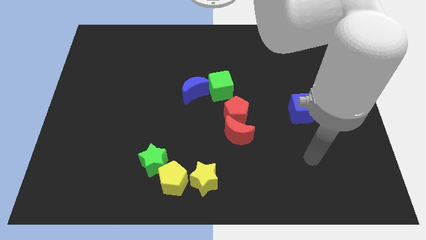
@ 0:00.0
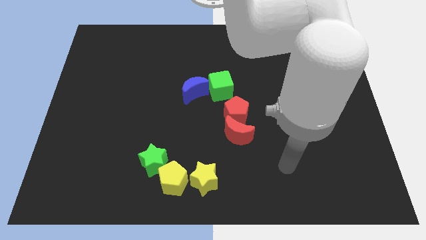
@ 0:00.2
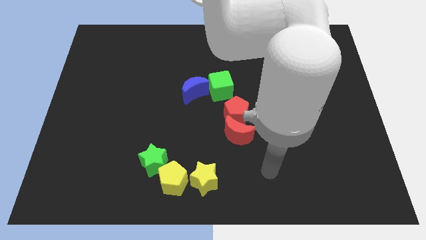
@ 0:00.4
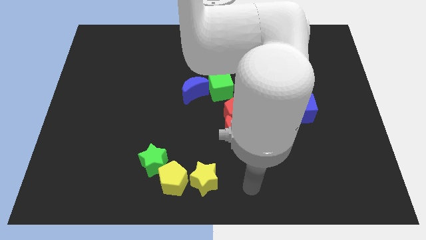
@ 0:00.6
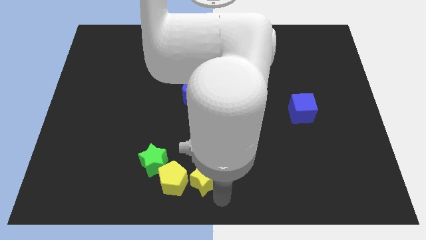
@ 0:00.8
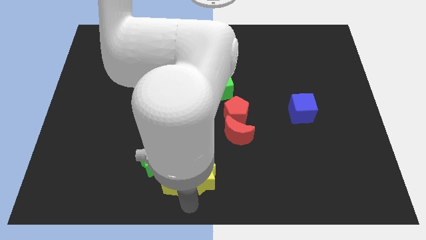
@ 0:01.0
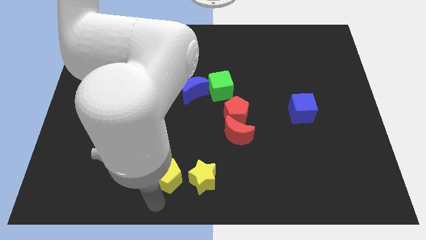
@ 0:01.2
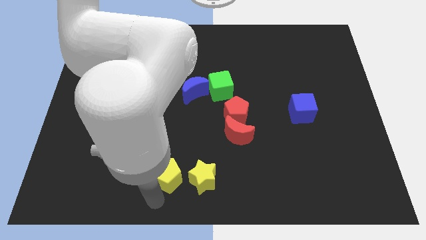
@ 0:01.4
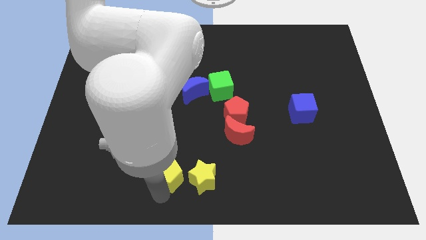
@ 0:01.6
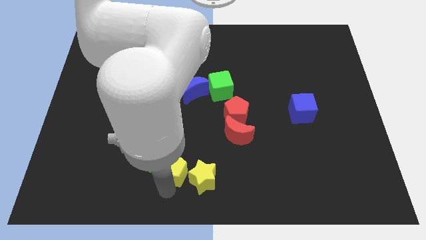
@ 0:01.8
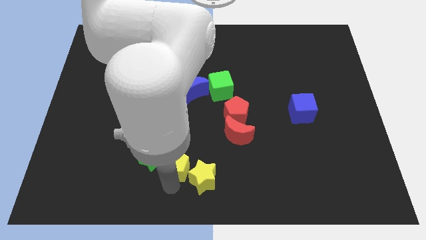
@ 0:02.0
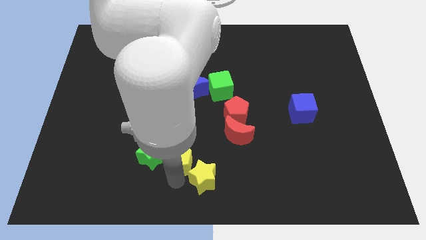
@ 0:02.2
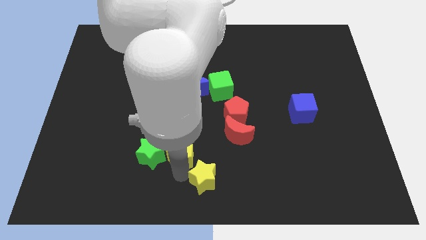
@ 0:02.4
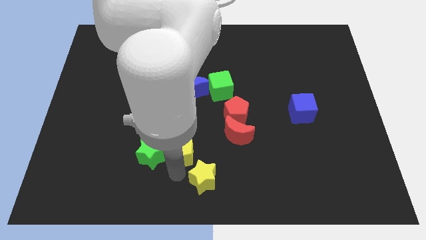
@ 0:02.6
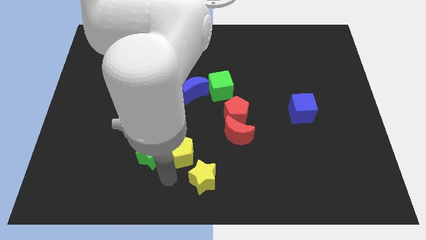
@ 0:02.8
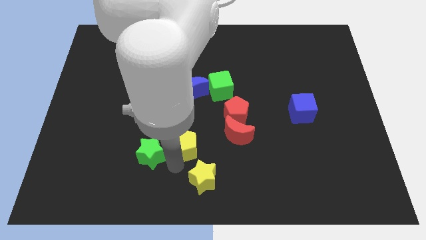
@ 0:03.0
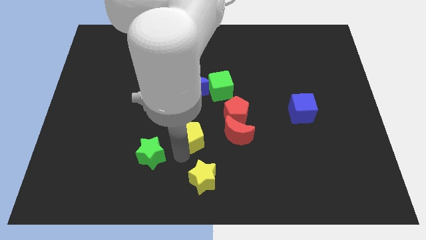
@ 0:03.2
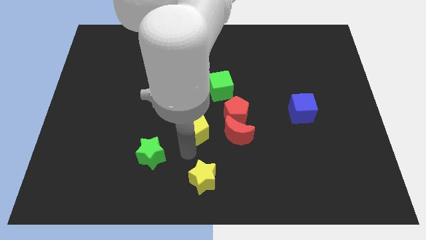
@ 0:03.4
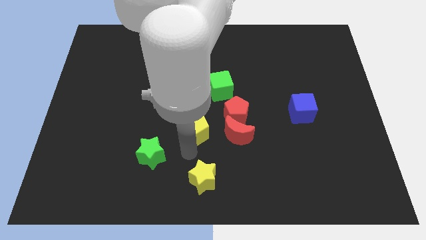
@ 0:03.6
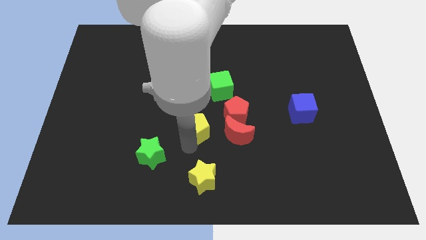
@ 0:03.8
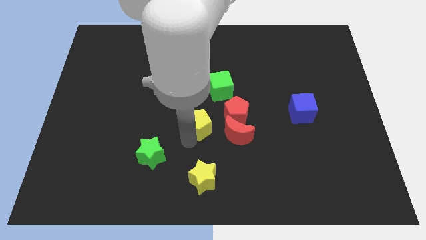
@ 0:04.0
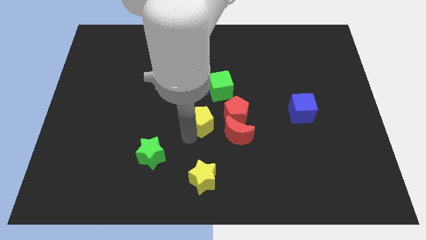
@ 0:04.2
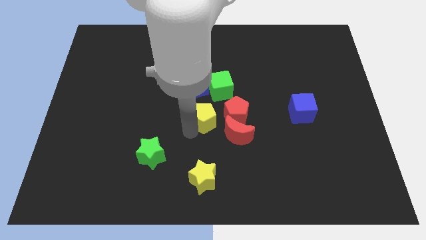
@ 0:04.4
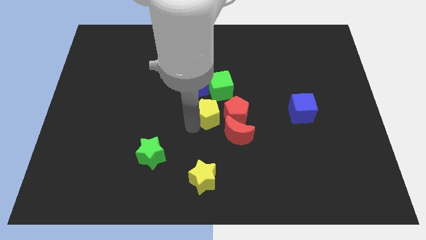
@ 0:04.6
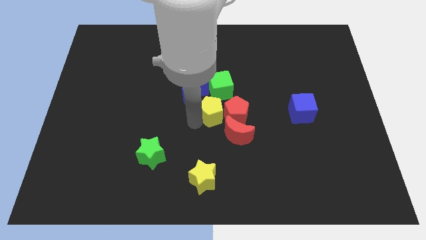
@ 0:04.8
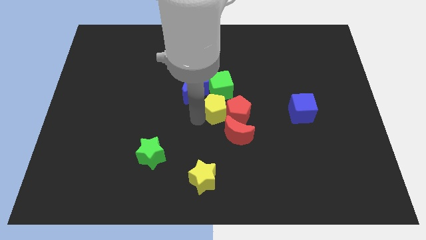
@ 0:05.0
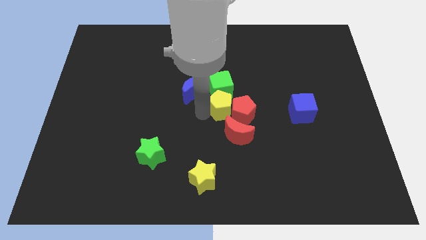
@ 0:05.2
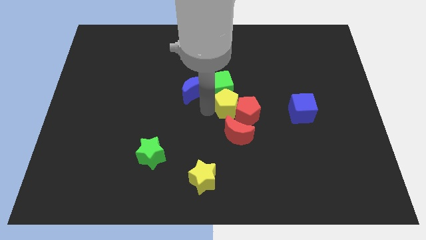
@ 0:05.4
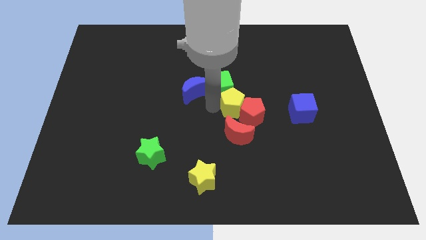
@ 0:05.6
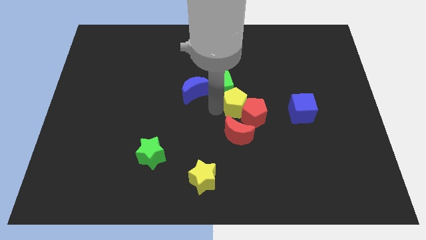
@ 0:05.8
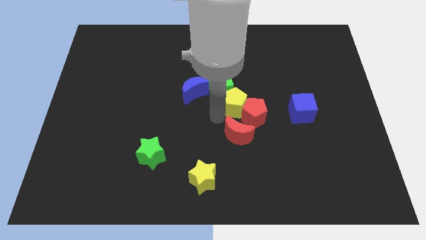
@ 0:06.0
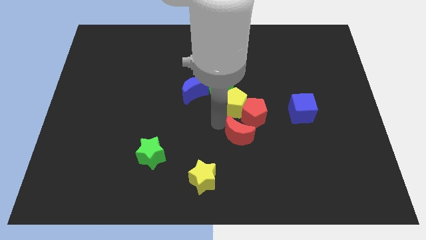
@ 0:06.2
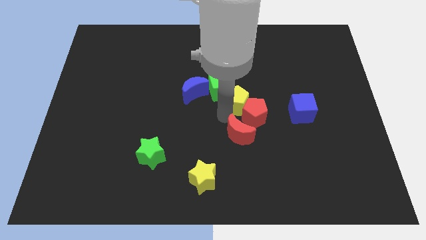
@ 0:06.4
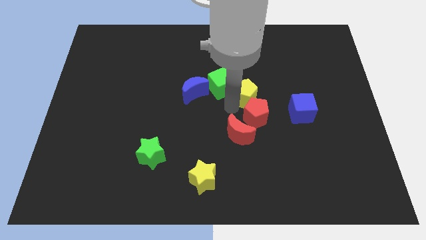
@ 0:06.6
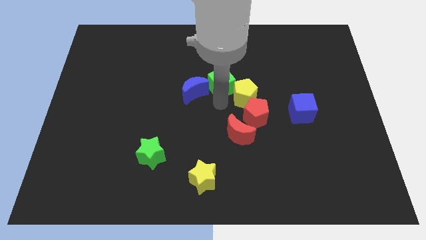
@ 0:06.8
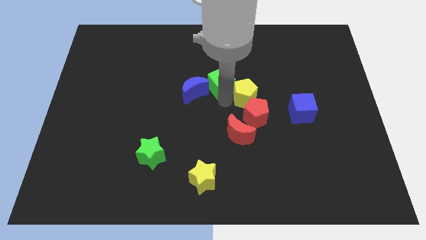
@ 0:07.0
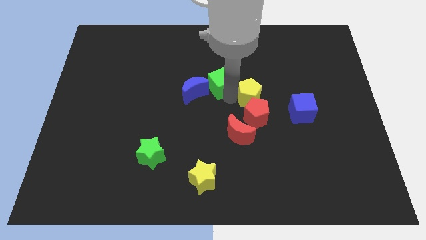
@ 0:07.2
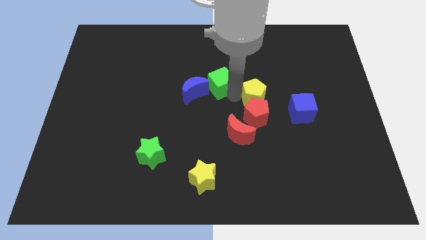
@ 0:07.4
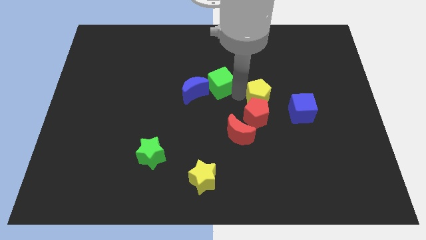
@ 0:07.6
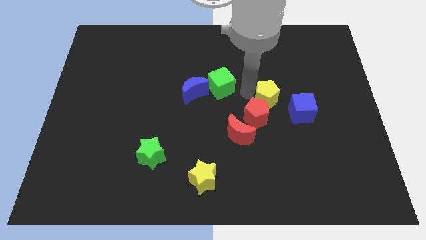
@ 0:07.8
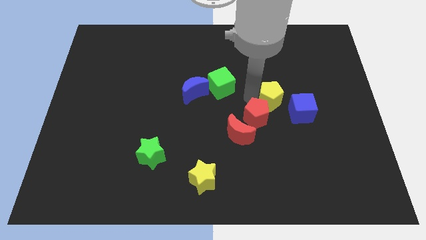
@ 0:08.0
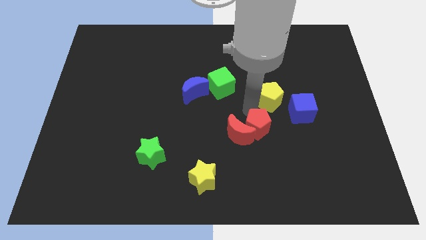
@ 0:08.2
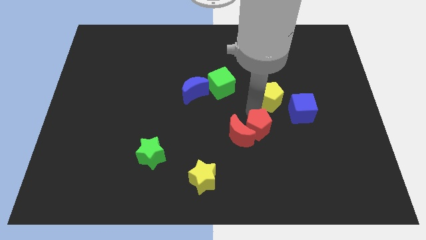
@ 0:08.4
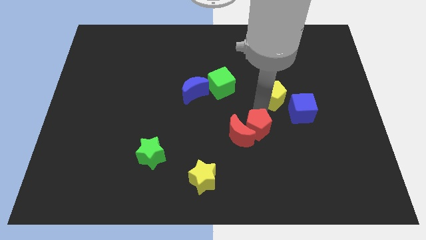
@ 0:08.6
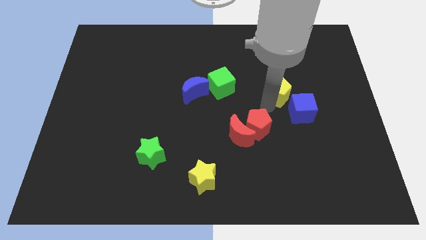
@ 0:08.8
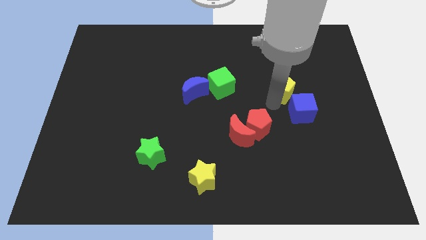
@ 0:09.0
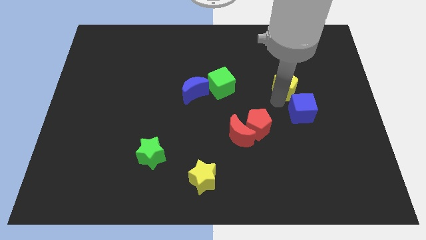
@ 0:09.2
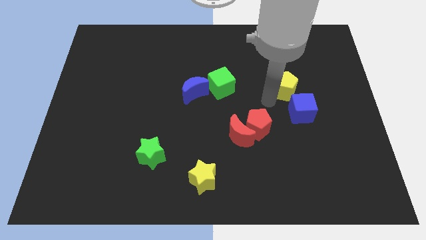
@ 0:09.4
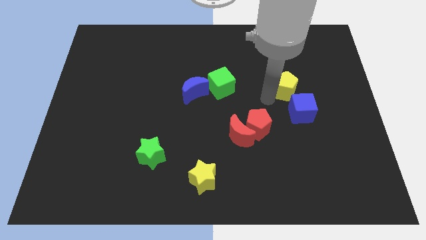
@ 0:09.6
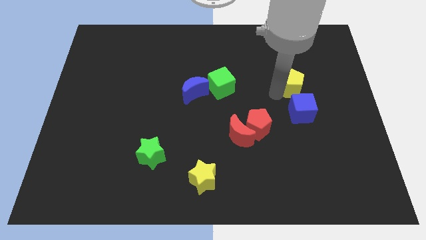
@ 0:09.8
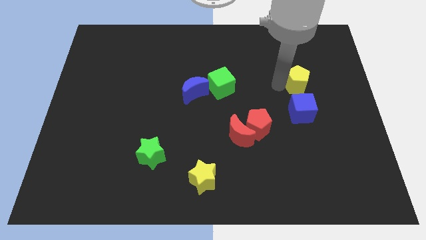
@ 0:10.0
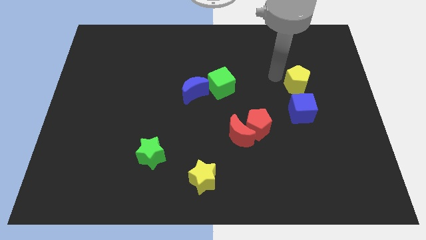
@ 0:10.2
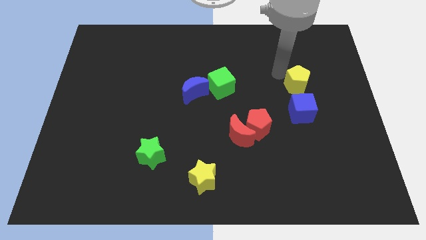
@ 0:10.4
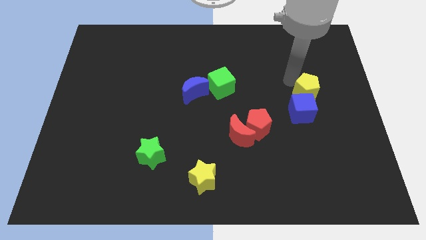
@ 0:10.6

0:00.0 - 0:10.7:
slide the yellow pentagon to the top right side of the blue cube

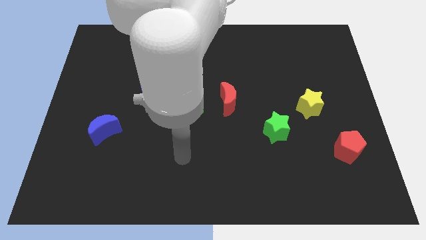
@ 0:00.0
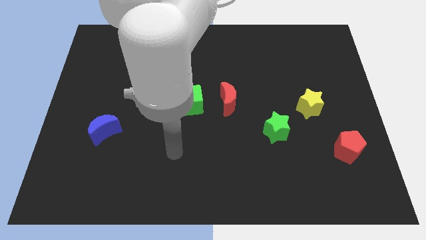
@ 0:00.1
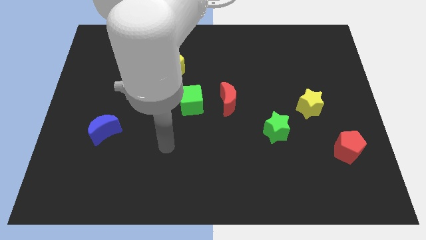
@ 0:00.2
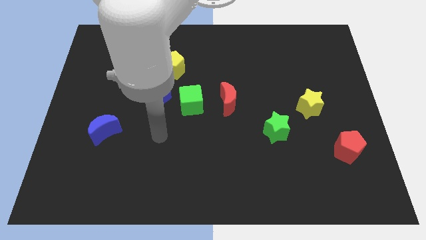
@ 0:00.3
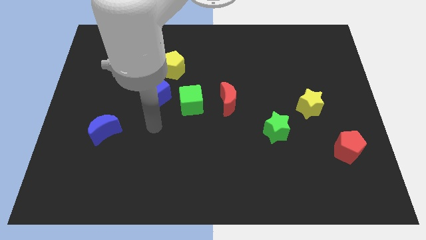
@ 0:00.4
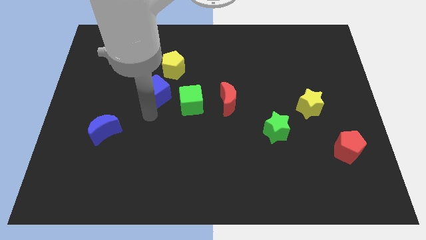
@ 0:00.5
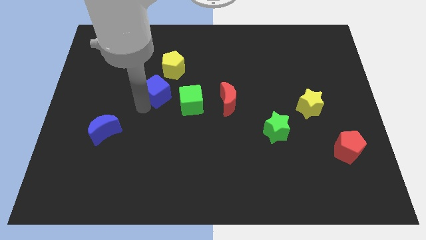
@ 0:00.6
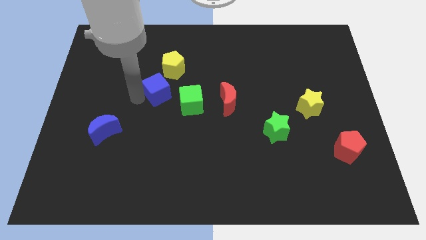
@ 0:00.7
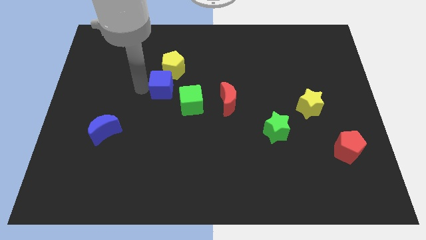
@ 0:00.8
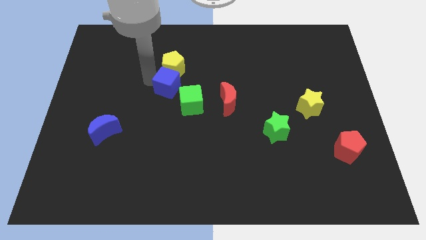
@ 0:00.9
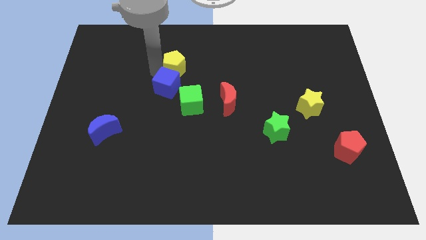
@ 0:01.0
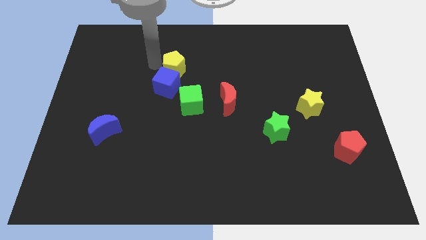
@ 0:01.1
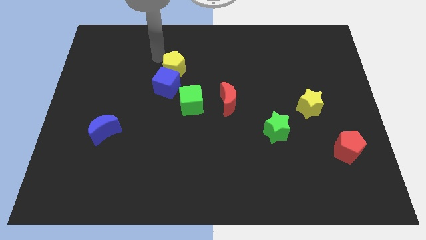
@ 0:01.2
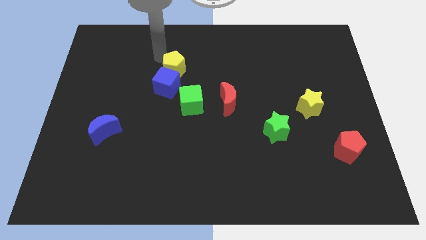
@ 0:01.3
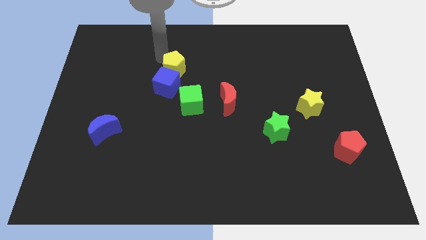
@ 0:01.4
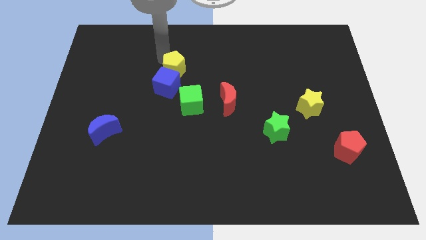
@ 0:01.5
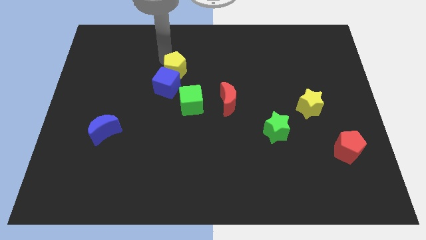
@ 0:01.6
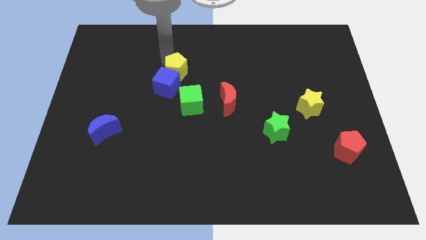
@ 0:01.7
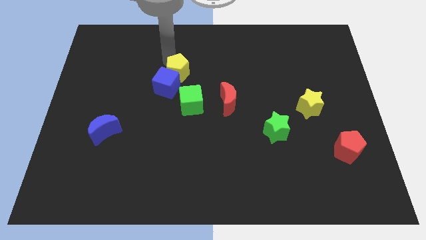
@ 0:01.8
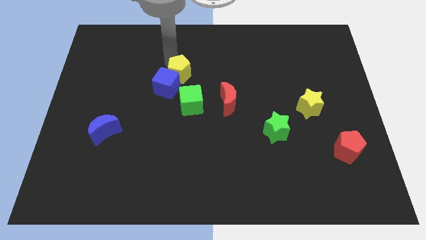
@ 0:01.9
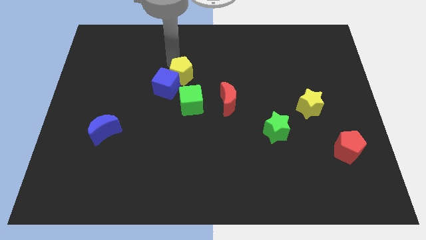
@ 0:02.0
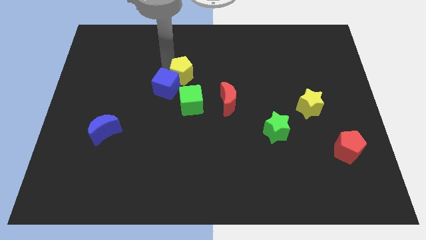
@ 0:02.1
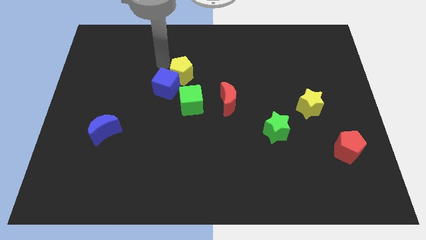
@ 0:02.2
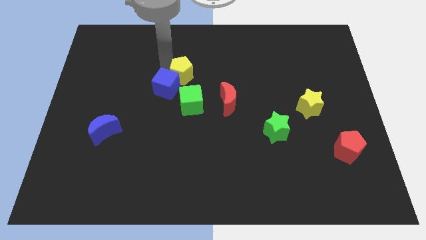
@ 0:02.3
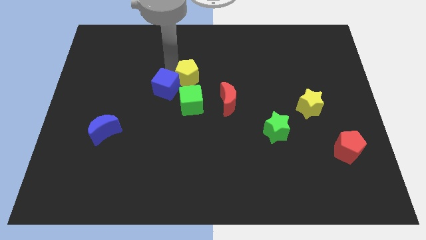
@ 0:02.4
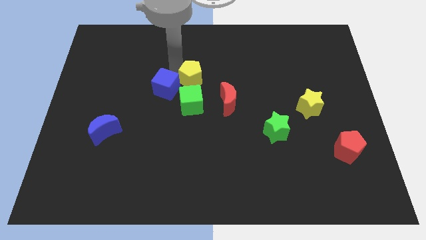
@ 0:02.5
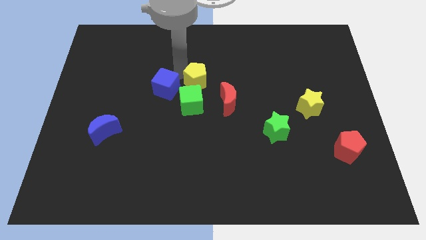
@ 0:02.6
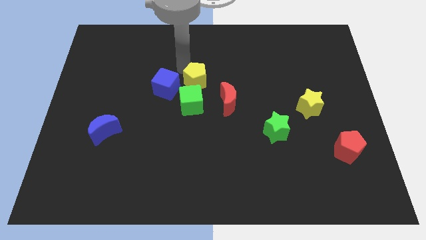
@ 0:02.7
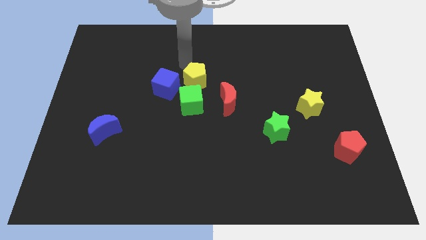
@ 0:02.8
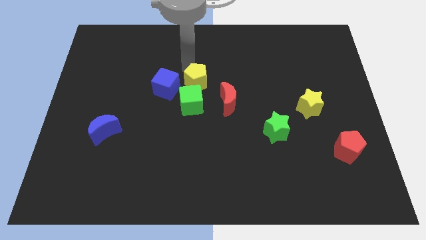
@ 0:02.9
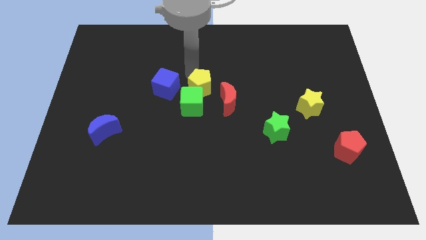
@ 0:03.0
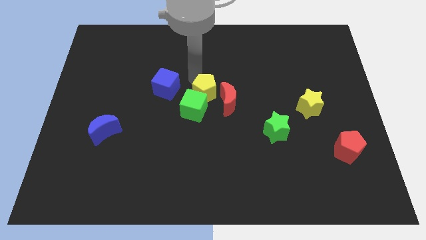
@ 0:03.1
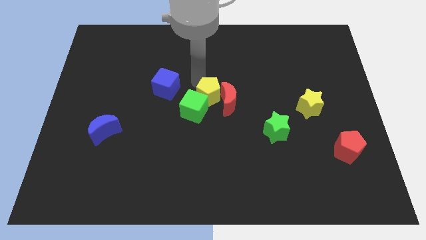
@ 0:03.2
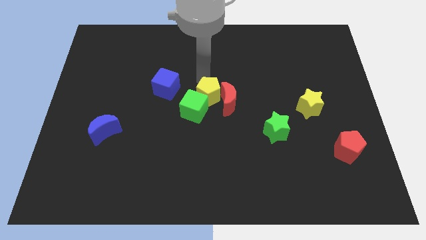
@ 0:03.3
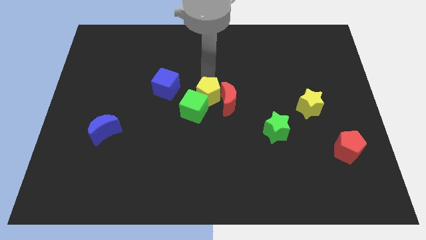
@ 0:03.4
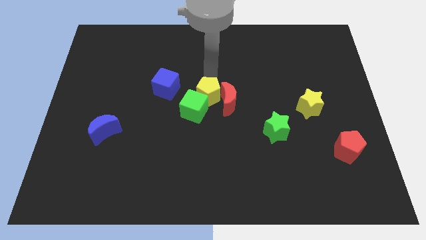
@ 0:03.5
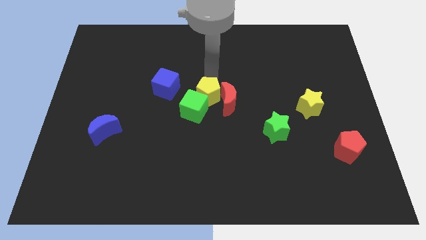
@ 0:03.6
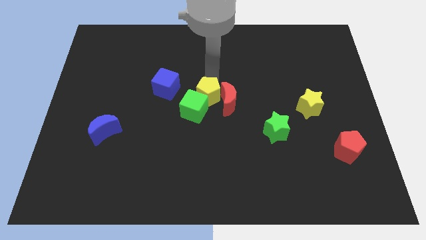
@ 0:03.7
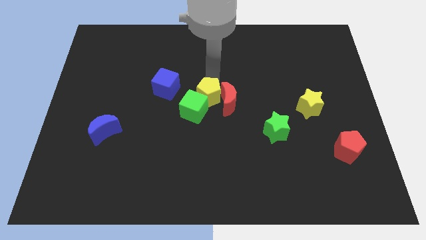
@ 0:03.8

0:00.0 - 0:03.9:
move the yellow pentagon diagonally down and to the left of the red moon
